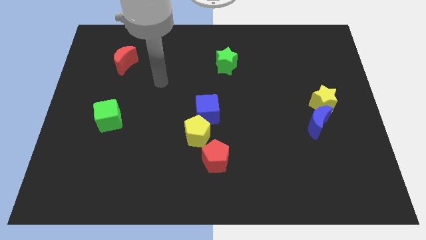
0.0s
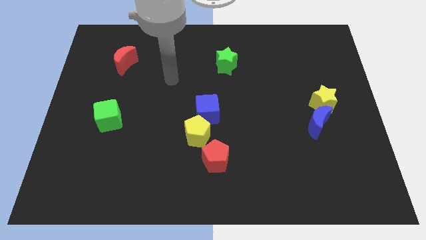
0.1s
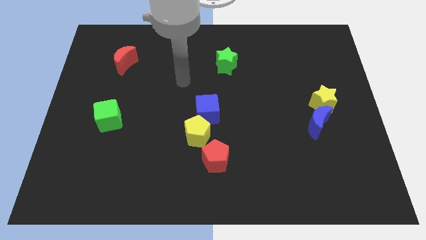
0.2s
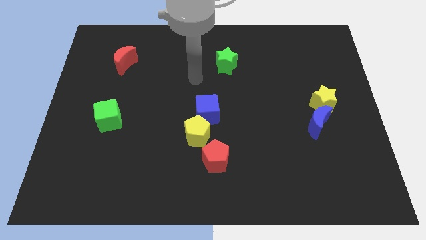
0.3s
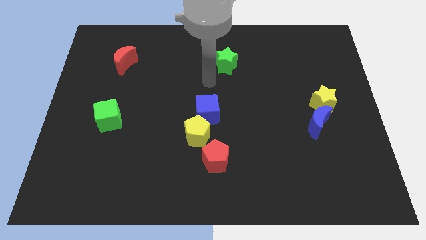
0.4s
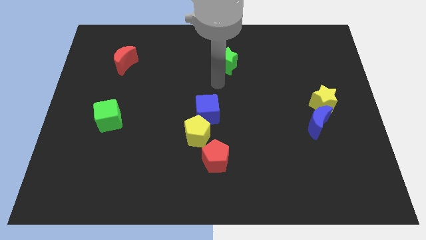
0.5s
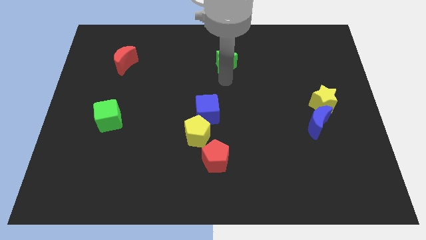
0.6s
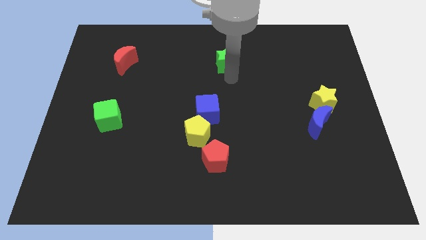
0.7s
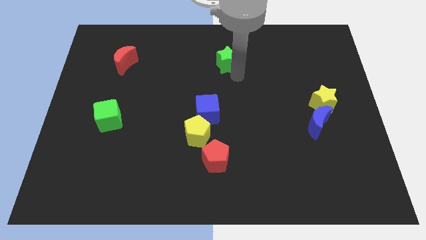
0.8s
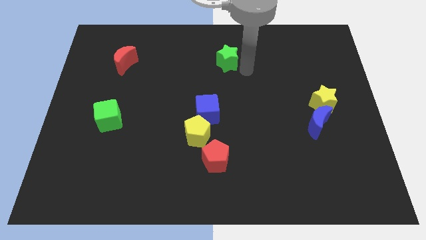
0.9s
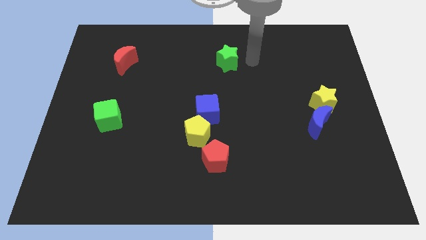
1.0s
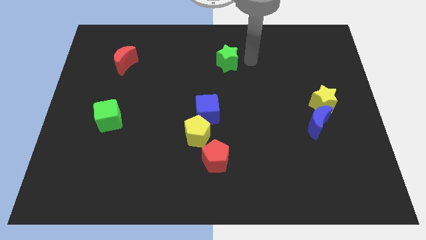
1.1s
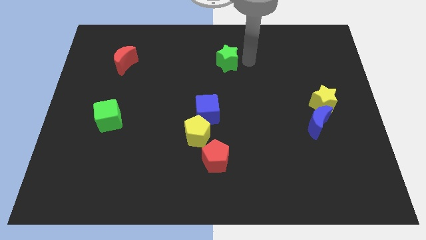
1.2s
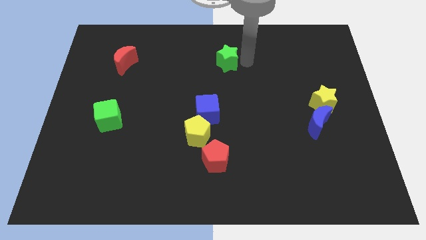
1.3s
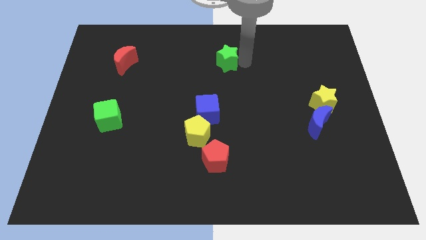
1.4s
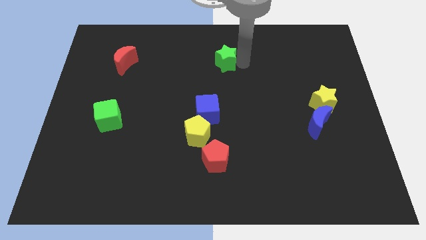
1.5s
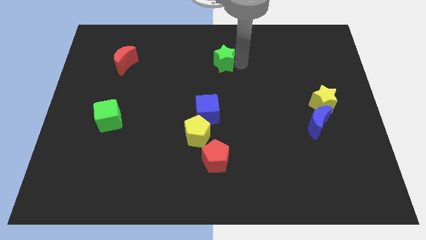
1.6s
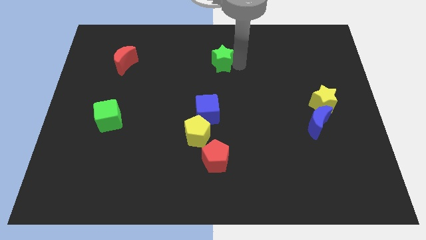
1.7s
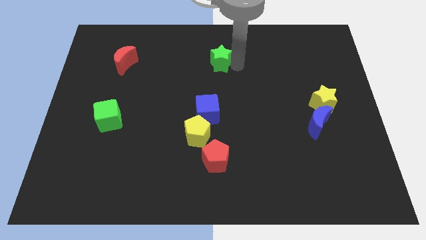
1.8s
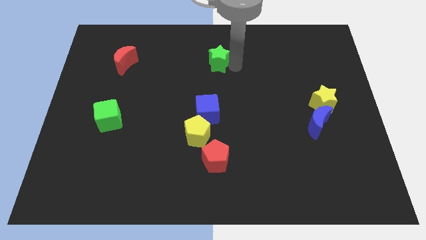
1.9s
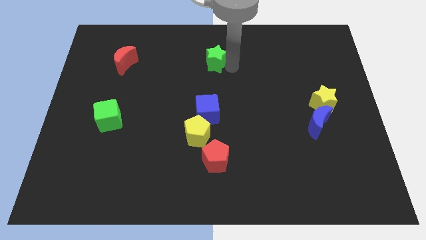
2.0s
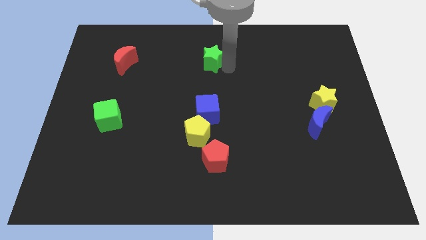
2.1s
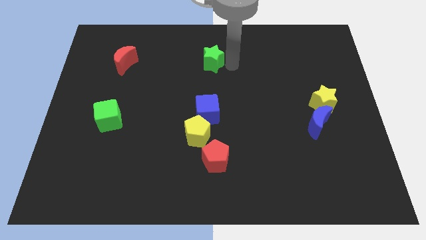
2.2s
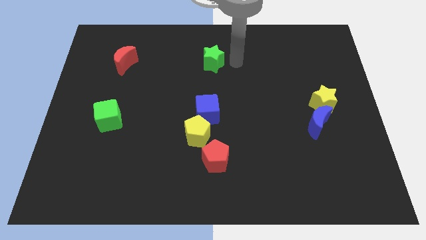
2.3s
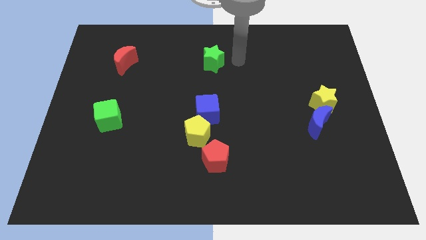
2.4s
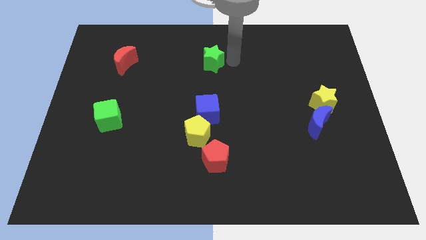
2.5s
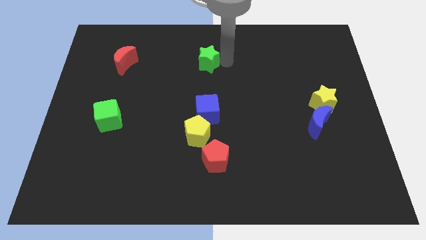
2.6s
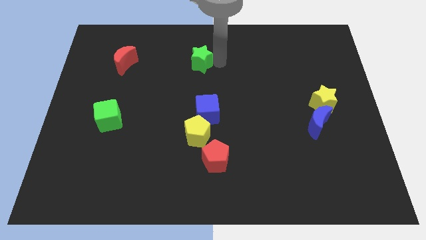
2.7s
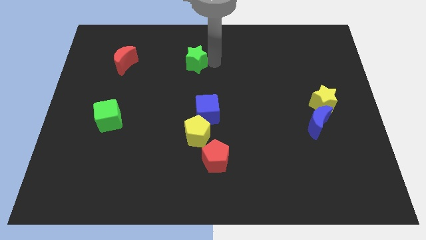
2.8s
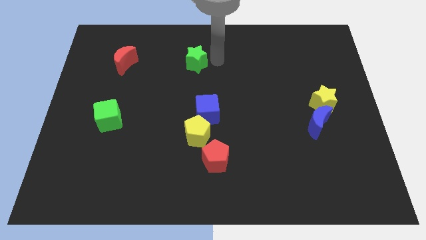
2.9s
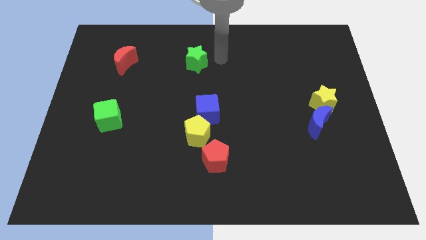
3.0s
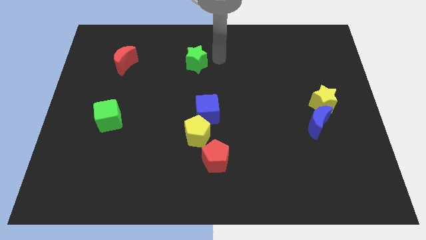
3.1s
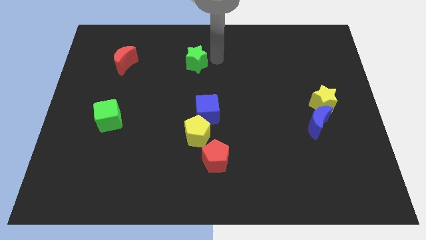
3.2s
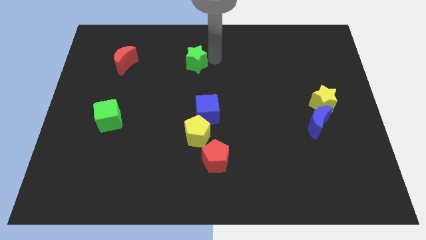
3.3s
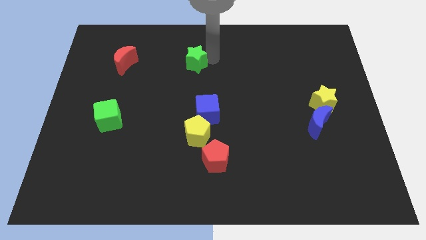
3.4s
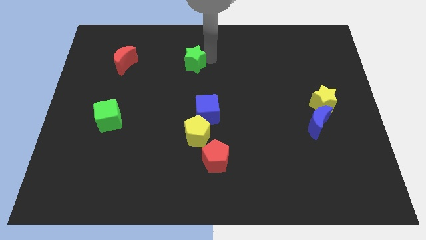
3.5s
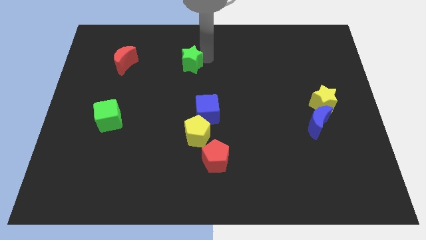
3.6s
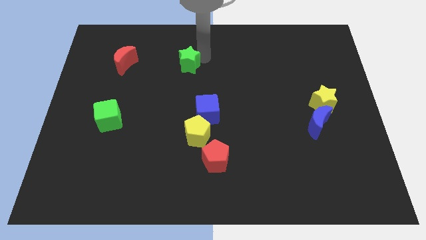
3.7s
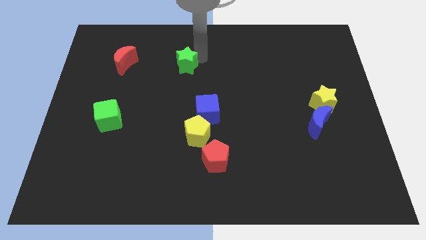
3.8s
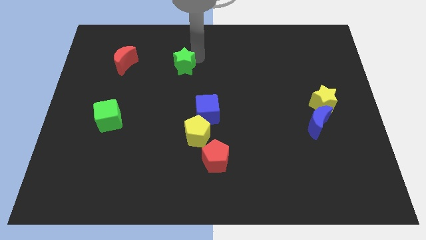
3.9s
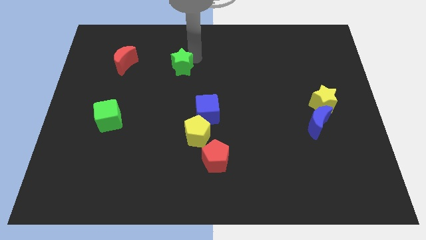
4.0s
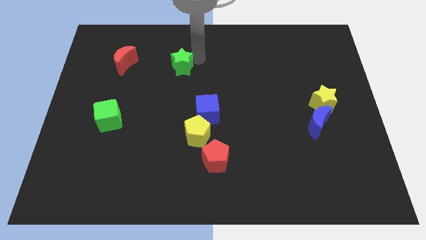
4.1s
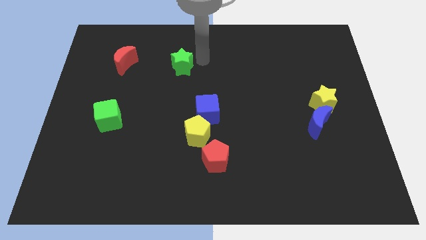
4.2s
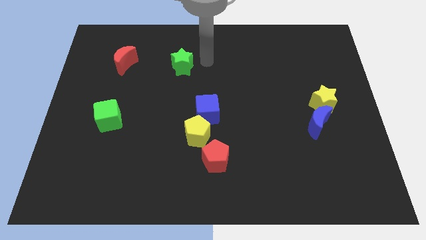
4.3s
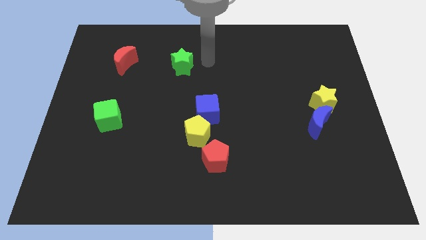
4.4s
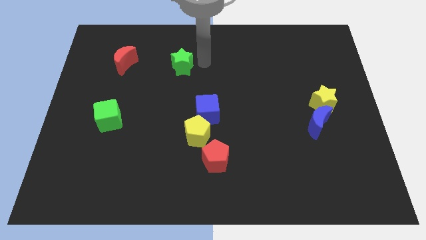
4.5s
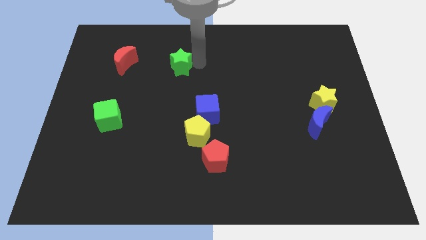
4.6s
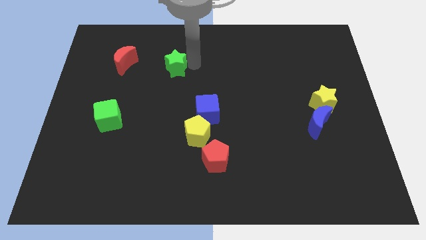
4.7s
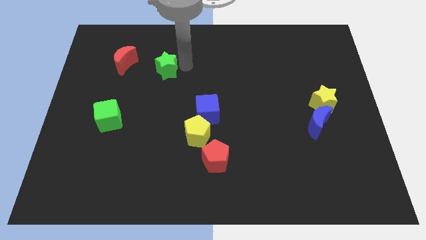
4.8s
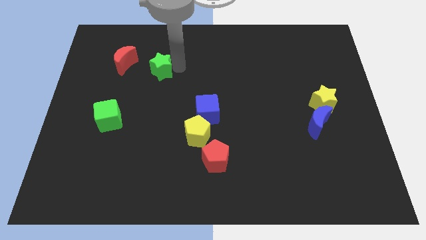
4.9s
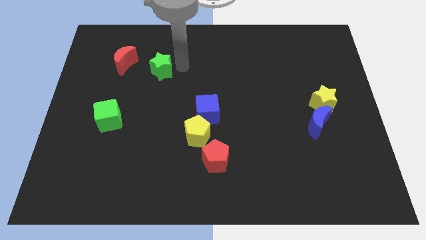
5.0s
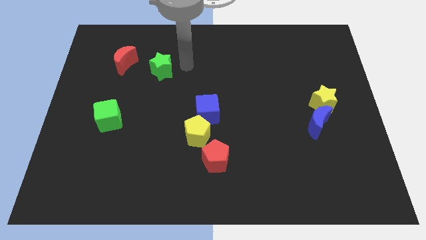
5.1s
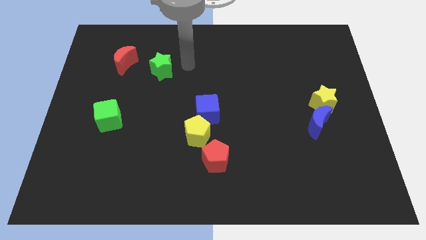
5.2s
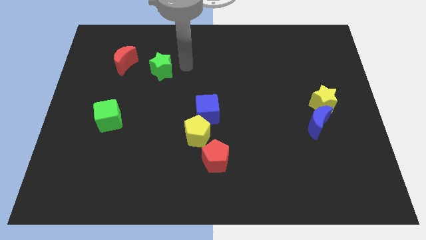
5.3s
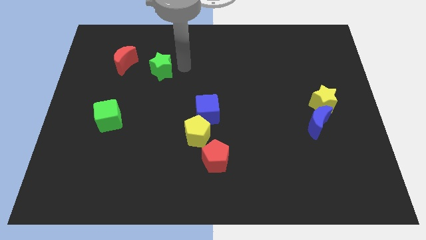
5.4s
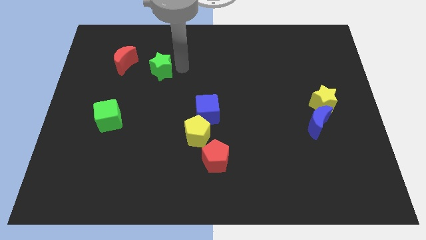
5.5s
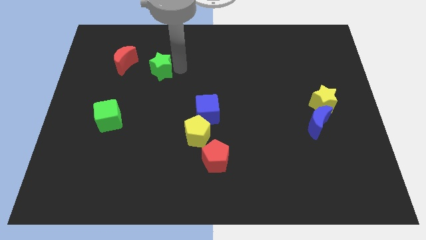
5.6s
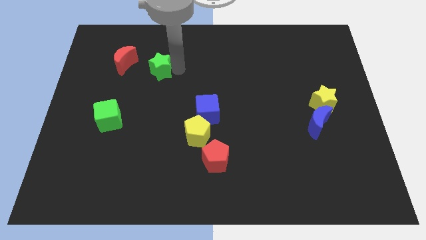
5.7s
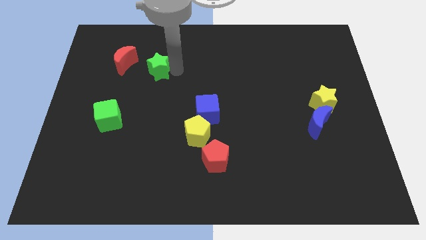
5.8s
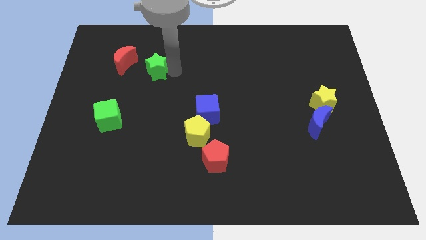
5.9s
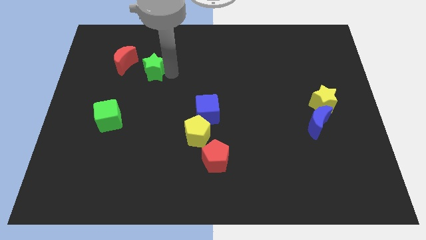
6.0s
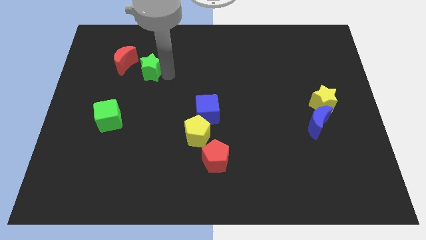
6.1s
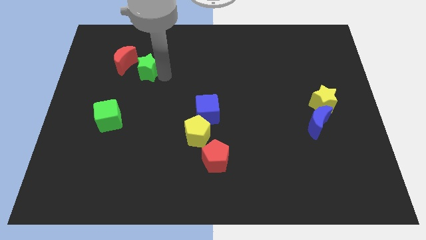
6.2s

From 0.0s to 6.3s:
slide the green star left

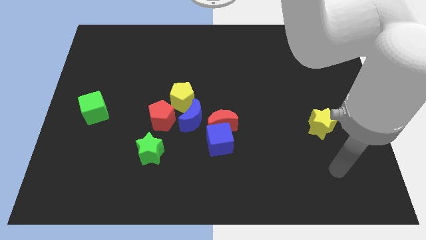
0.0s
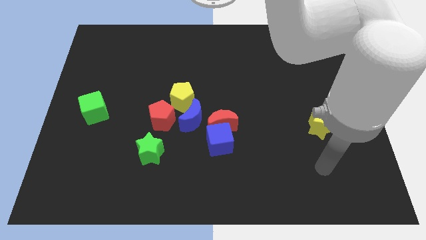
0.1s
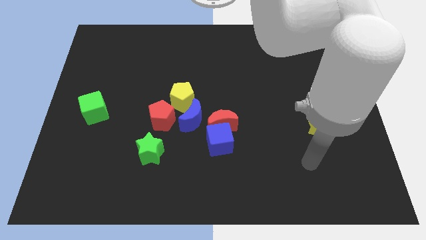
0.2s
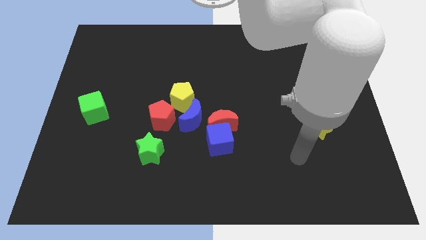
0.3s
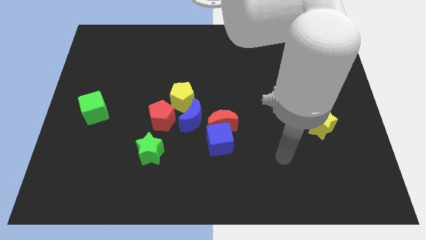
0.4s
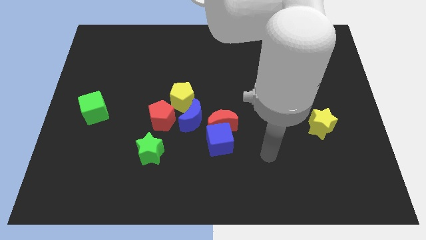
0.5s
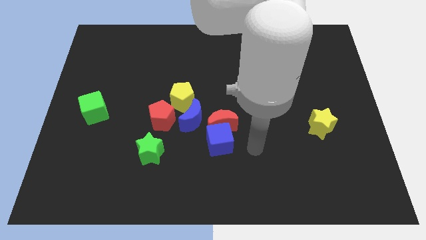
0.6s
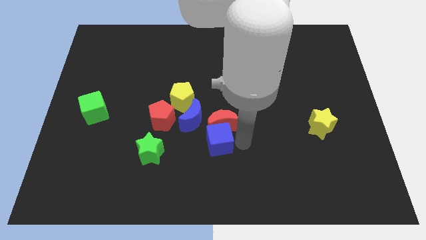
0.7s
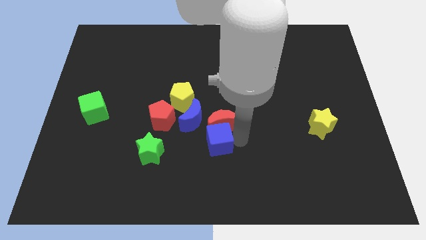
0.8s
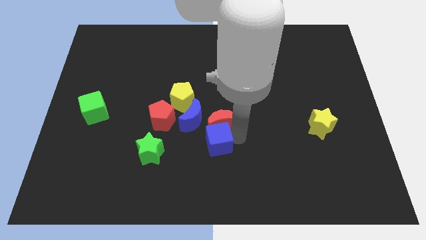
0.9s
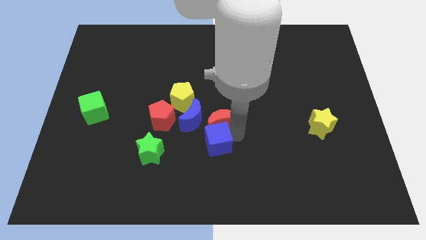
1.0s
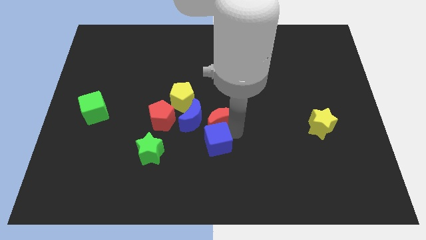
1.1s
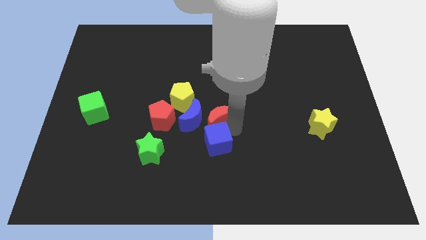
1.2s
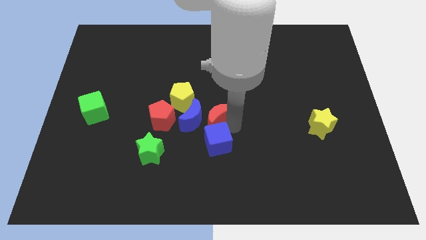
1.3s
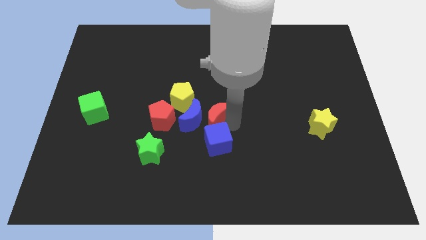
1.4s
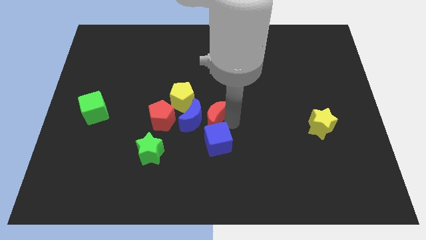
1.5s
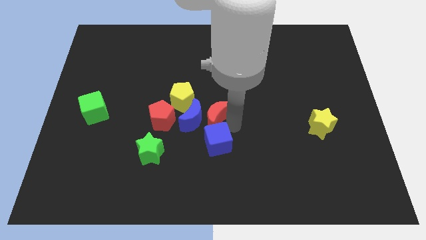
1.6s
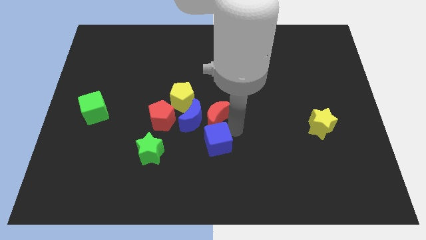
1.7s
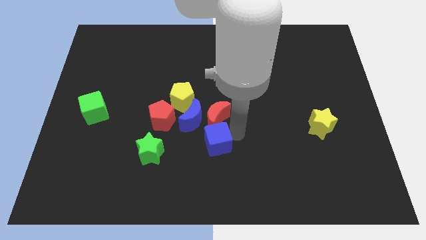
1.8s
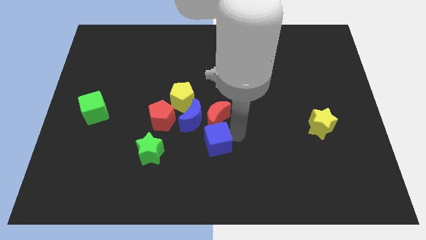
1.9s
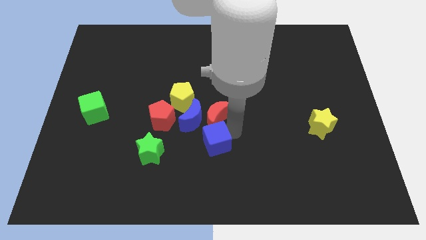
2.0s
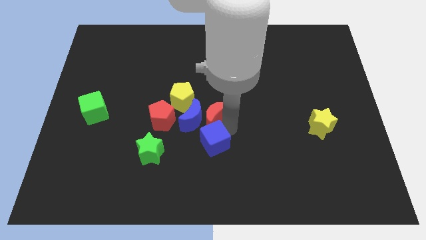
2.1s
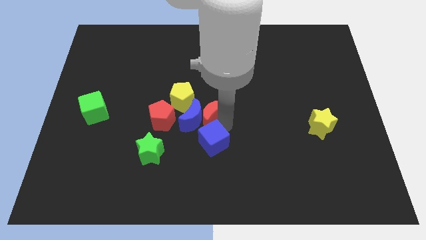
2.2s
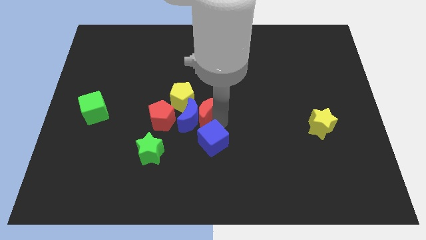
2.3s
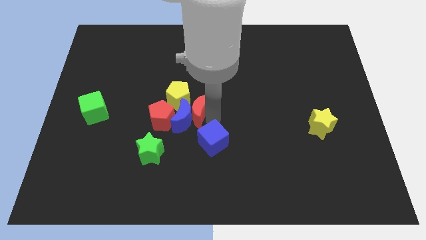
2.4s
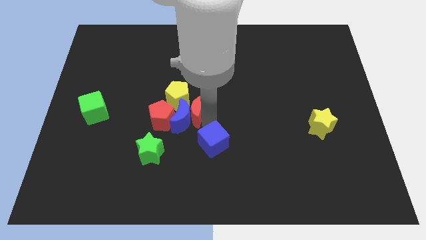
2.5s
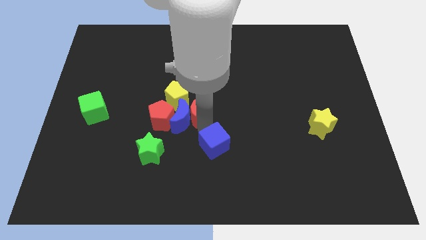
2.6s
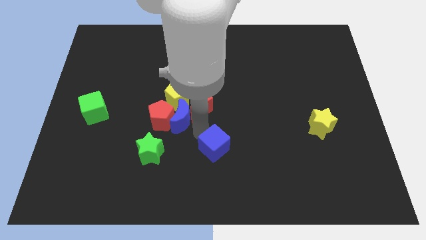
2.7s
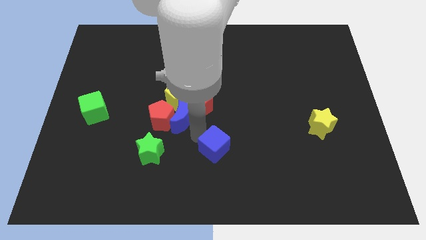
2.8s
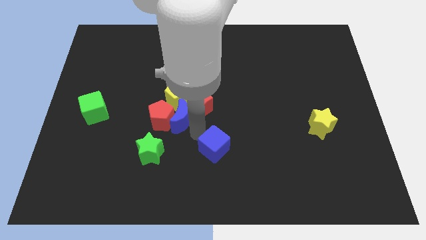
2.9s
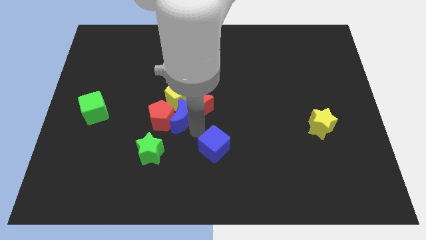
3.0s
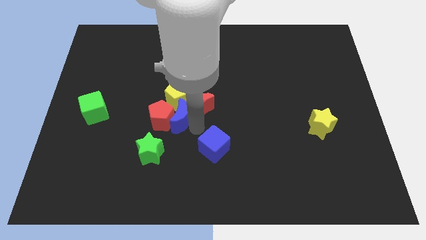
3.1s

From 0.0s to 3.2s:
slightly push the red moon upwards and left
